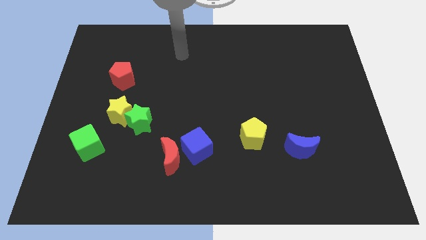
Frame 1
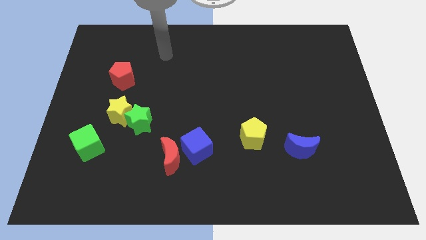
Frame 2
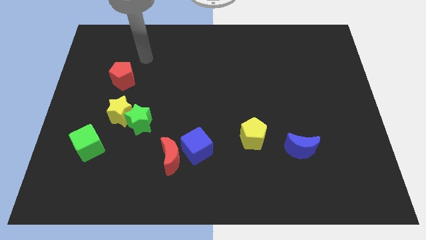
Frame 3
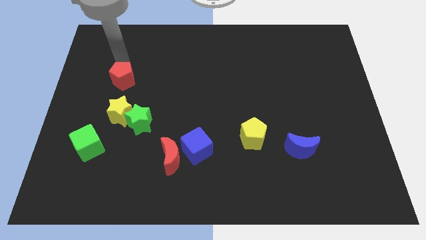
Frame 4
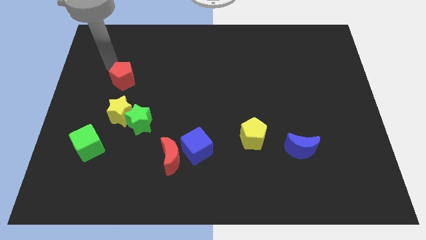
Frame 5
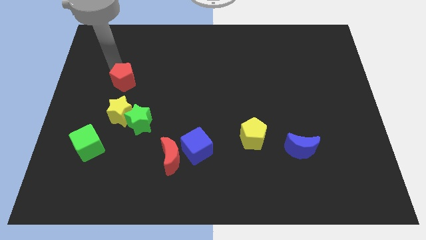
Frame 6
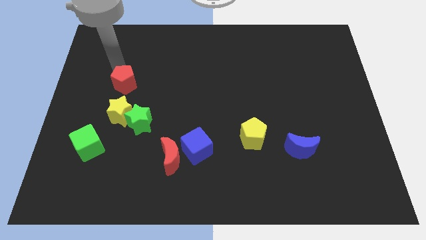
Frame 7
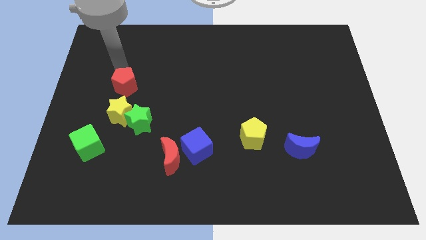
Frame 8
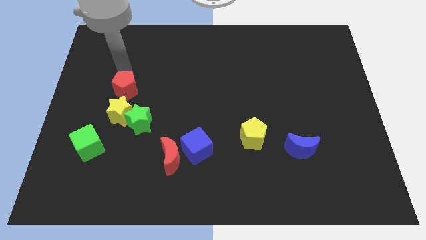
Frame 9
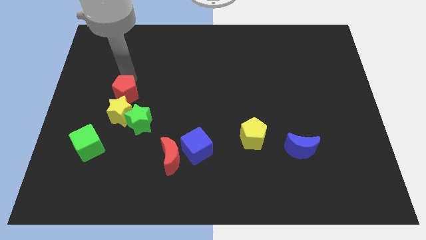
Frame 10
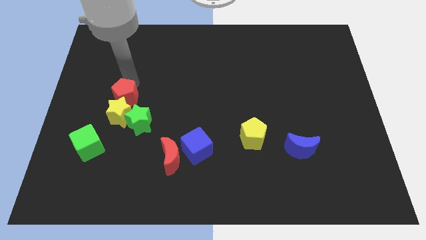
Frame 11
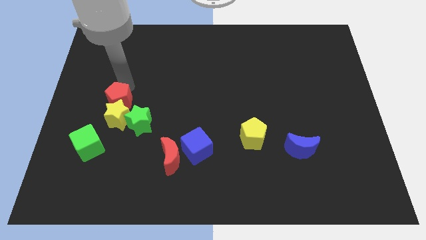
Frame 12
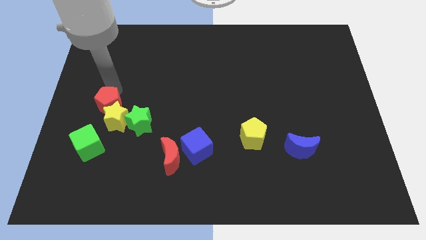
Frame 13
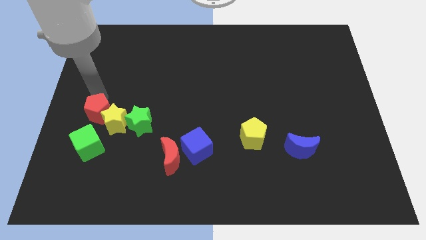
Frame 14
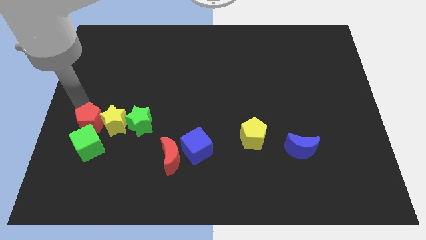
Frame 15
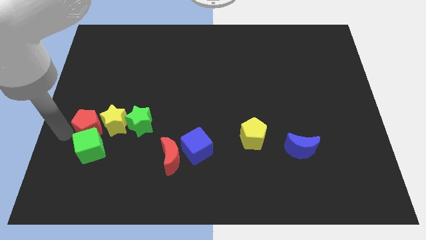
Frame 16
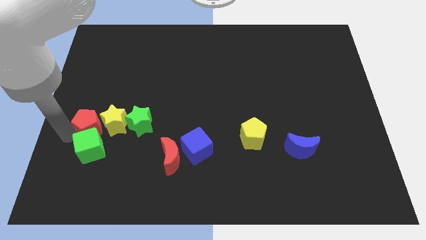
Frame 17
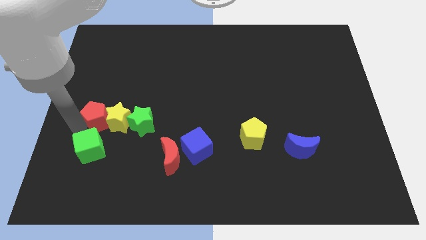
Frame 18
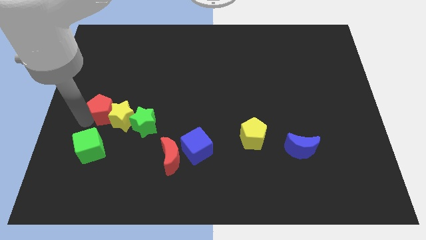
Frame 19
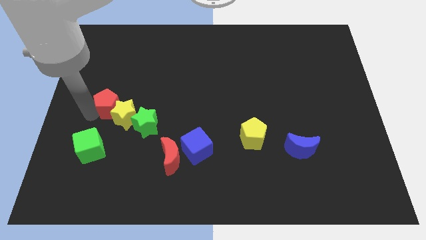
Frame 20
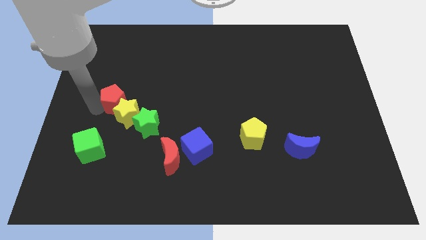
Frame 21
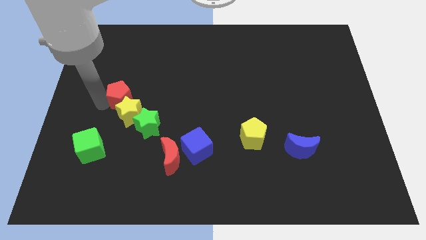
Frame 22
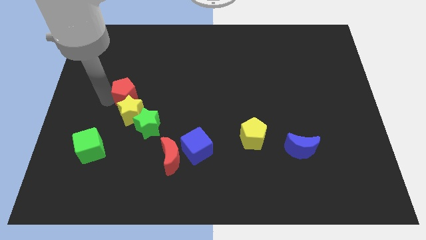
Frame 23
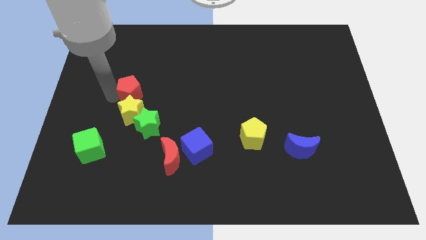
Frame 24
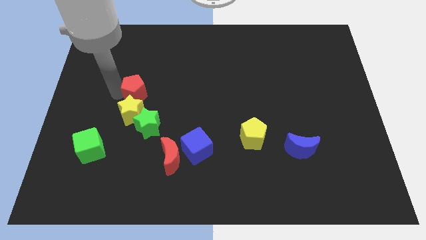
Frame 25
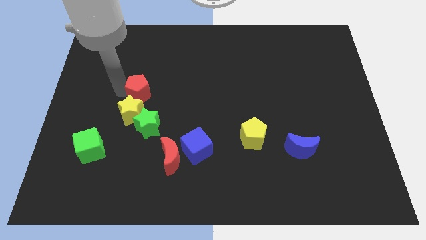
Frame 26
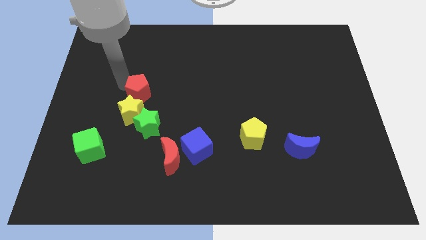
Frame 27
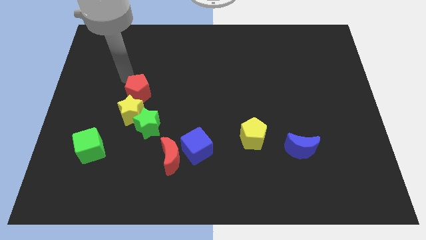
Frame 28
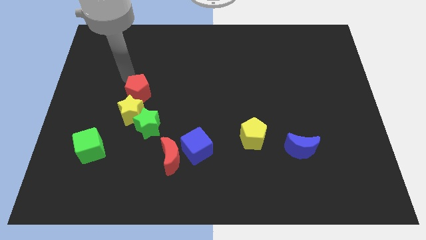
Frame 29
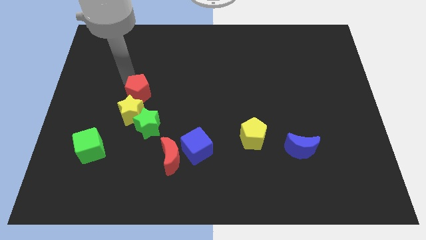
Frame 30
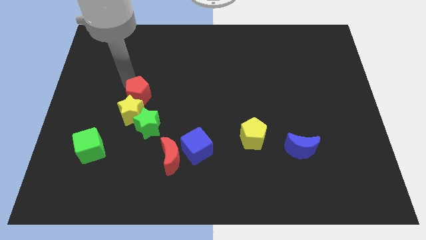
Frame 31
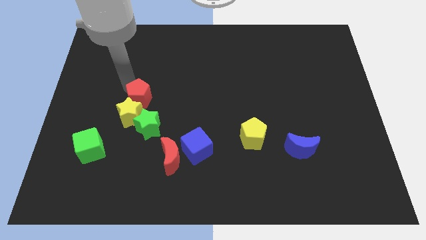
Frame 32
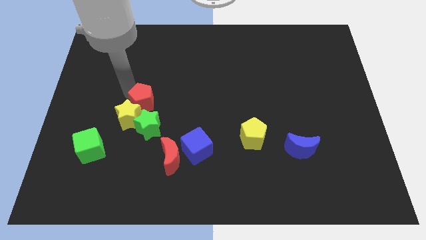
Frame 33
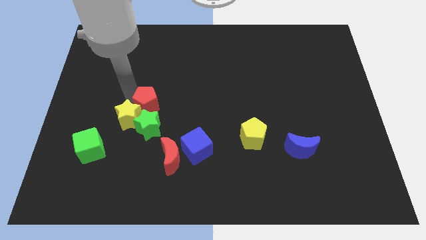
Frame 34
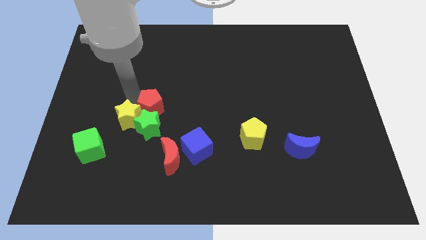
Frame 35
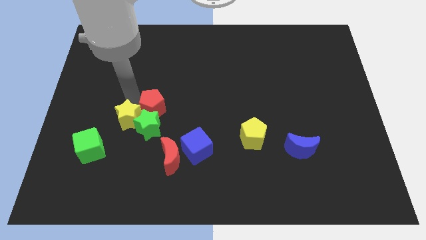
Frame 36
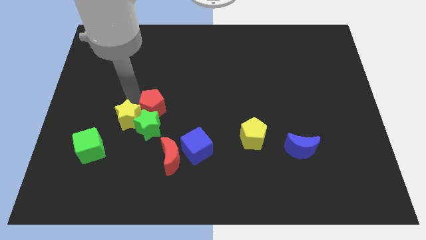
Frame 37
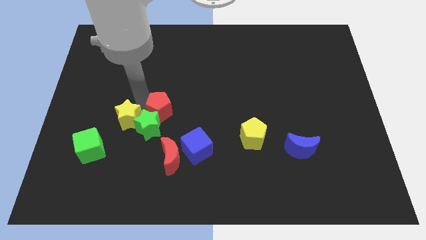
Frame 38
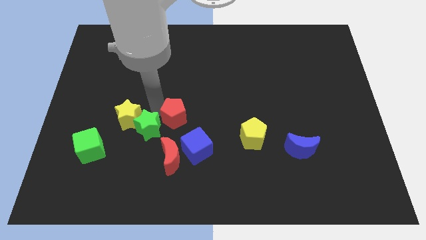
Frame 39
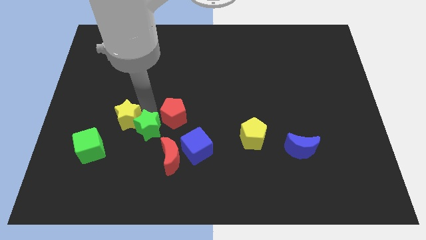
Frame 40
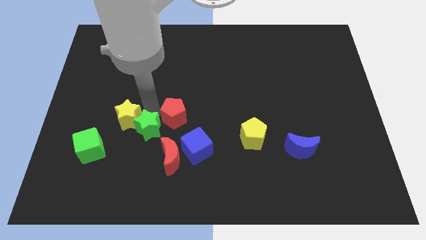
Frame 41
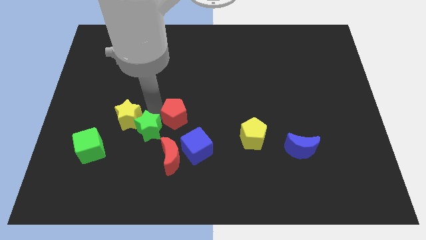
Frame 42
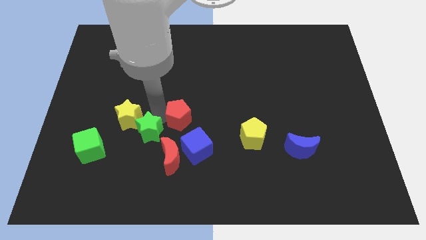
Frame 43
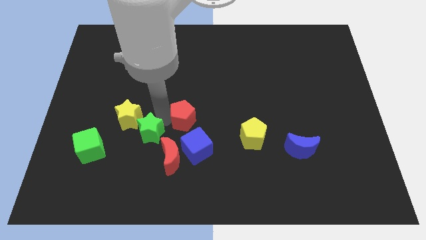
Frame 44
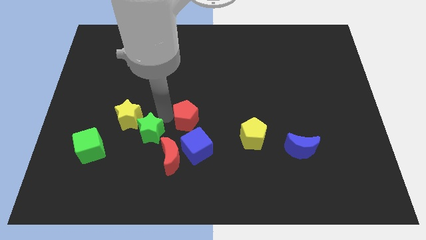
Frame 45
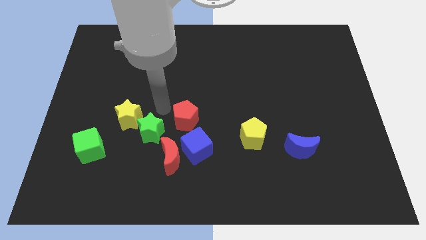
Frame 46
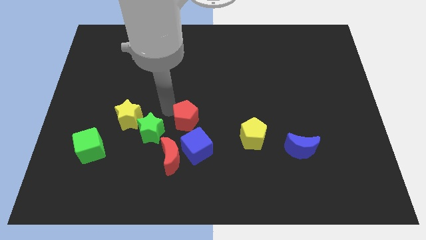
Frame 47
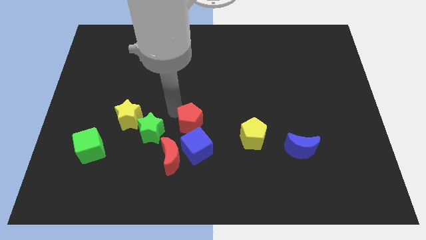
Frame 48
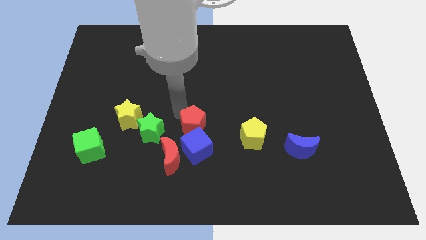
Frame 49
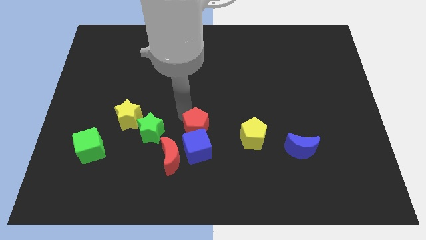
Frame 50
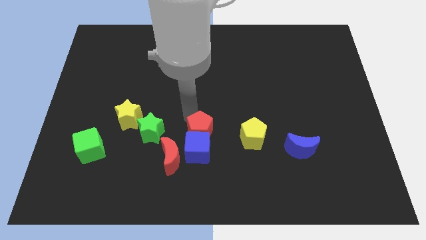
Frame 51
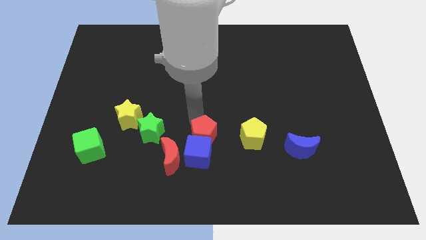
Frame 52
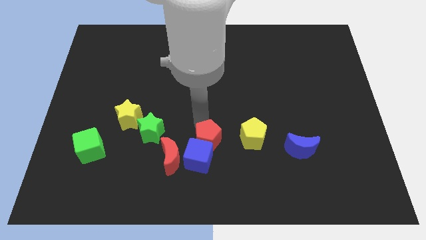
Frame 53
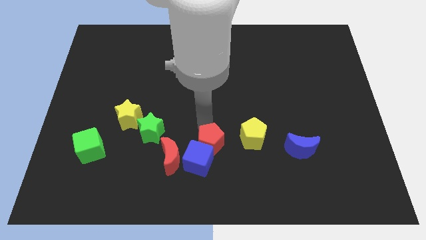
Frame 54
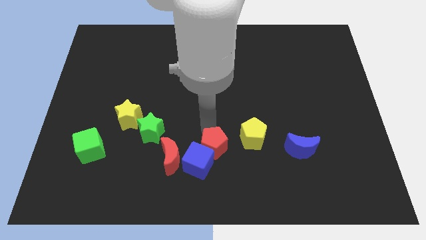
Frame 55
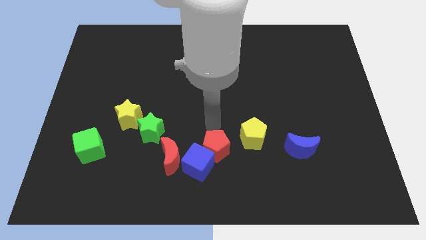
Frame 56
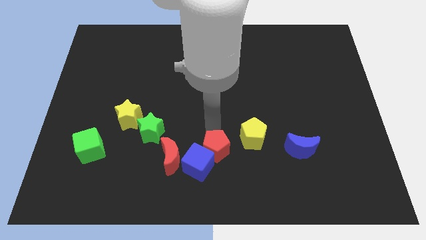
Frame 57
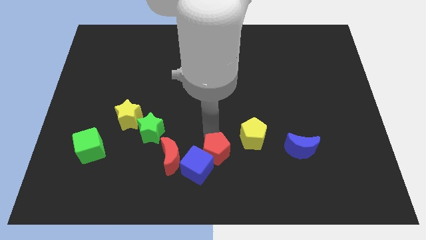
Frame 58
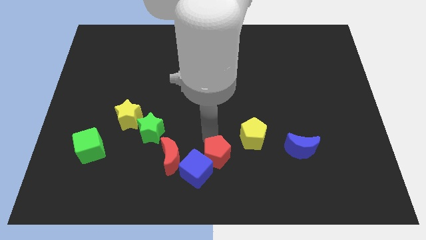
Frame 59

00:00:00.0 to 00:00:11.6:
push the red pentagon to the bottom side
